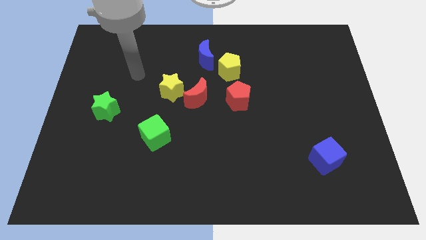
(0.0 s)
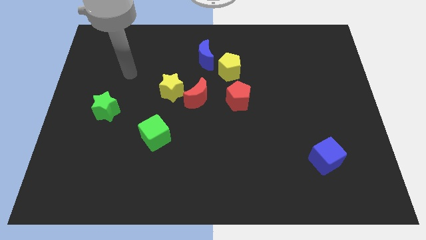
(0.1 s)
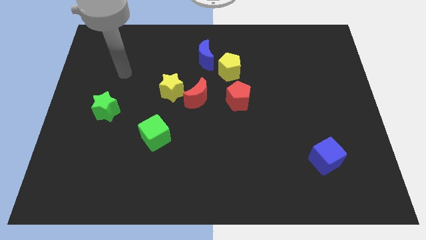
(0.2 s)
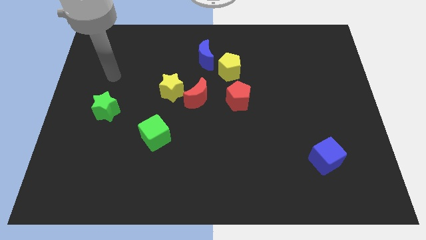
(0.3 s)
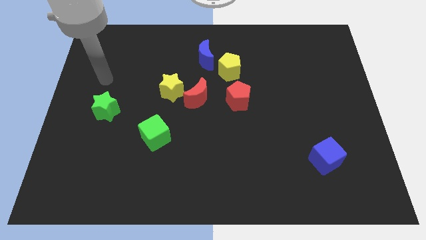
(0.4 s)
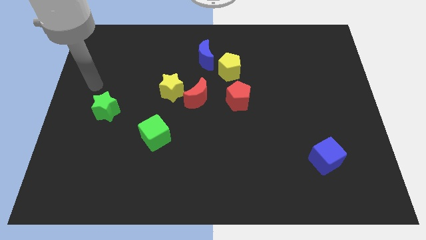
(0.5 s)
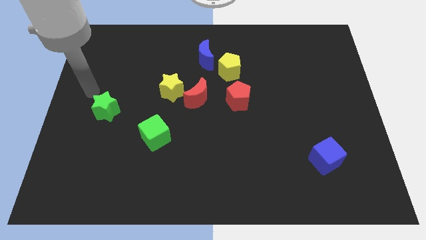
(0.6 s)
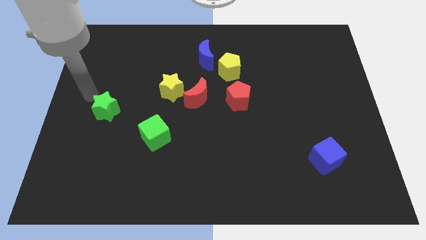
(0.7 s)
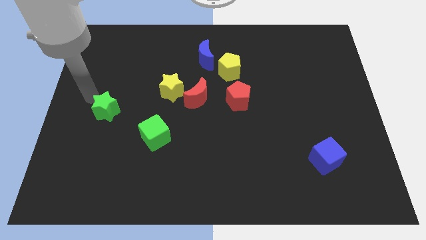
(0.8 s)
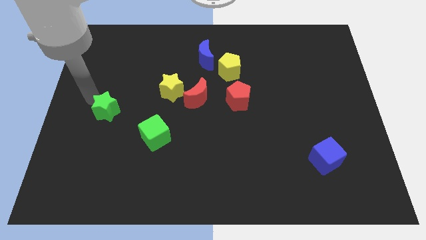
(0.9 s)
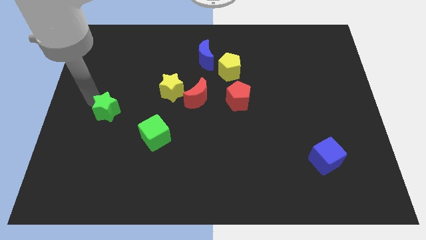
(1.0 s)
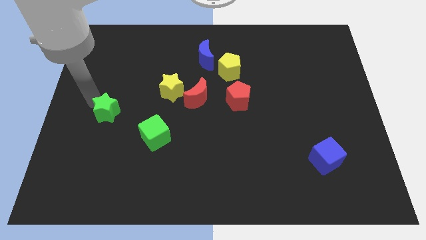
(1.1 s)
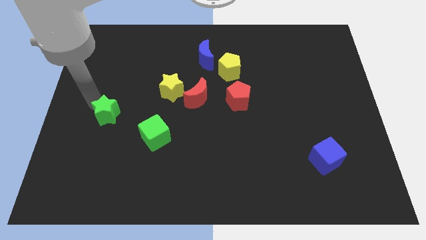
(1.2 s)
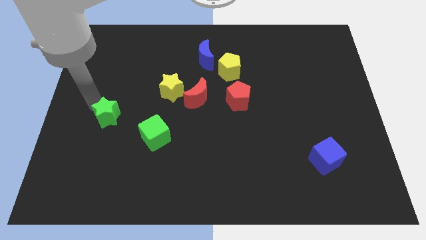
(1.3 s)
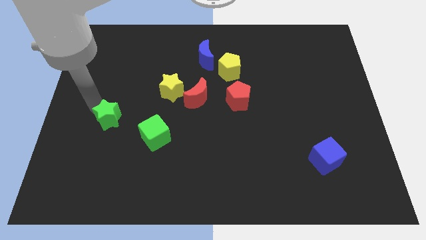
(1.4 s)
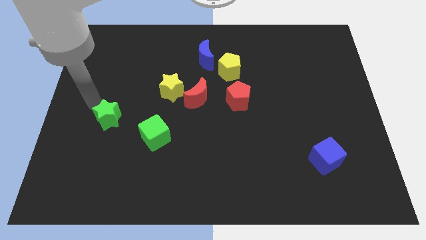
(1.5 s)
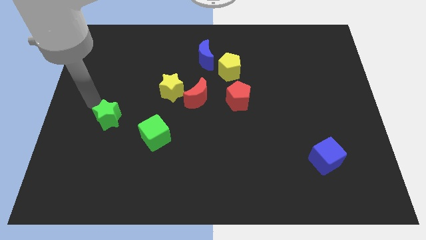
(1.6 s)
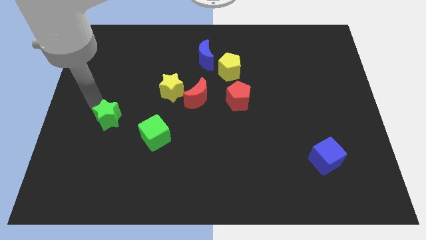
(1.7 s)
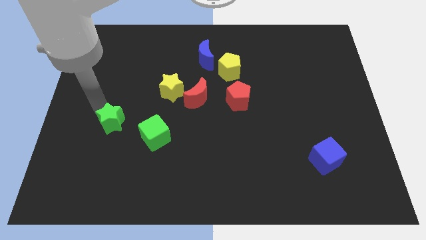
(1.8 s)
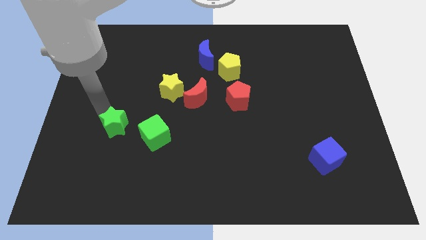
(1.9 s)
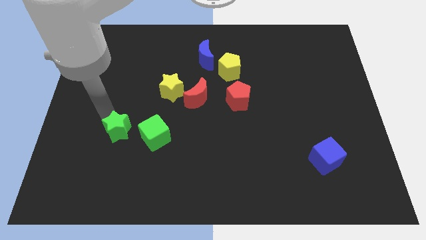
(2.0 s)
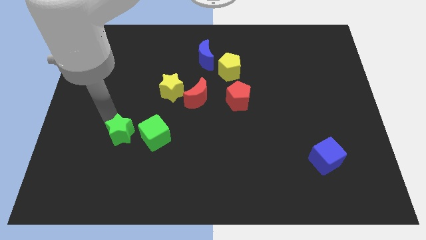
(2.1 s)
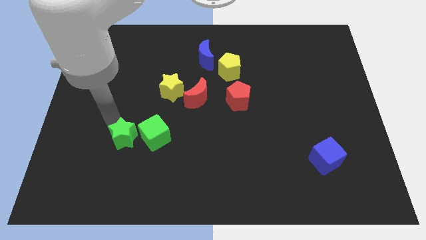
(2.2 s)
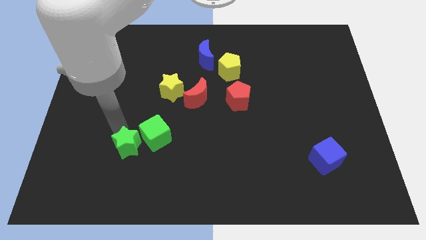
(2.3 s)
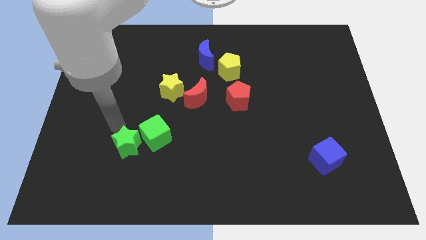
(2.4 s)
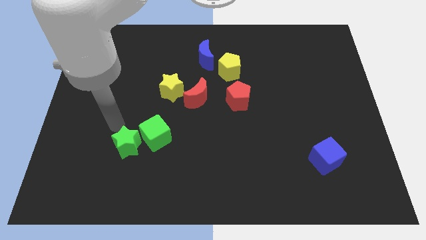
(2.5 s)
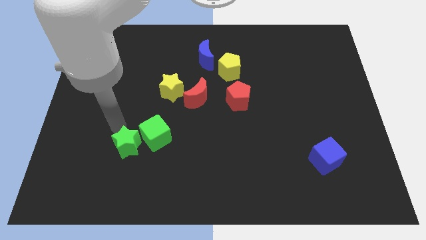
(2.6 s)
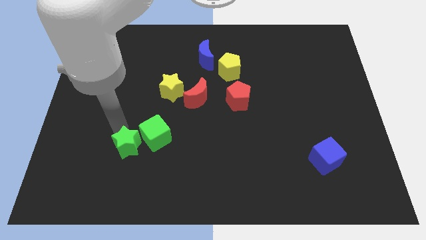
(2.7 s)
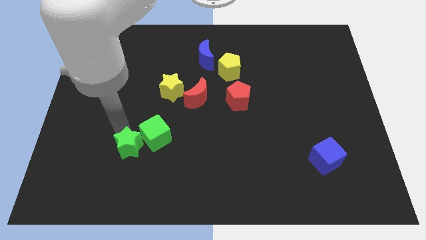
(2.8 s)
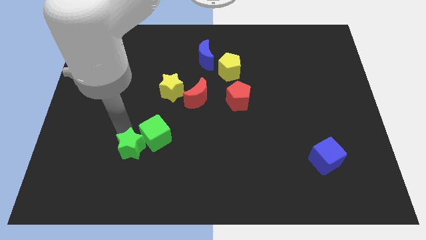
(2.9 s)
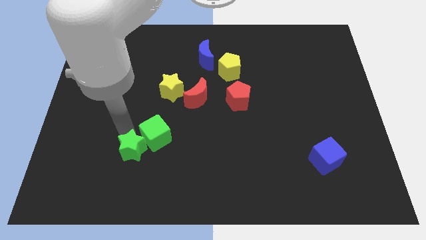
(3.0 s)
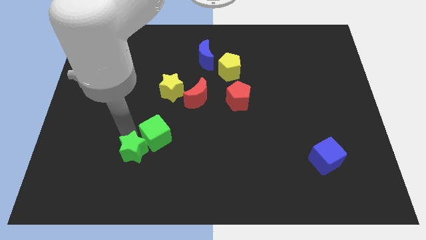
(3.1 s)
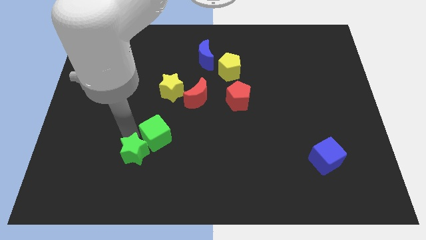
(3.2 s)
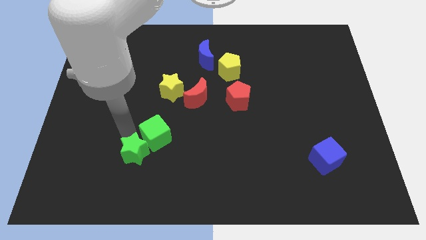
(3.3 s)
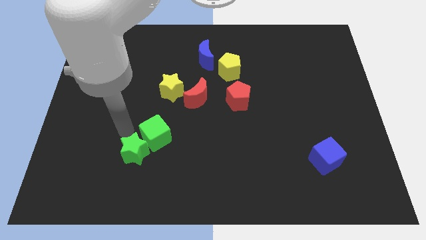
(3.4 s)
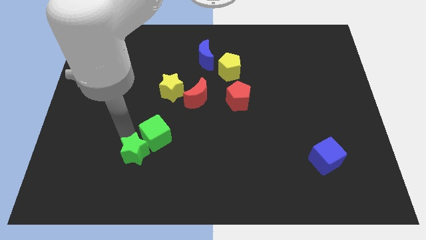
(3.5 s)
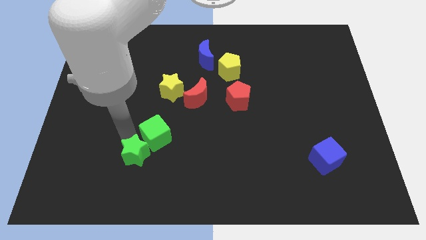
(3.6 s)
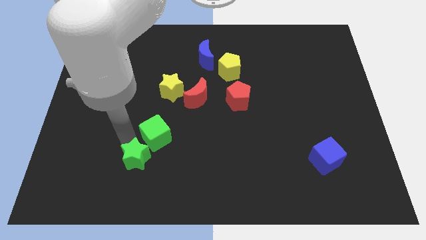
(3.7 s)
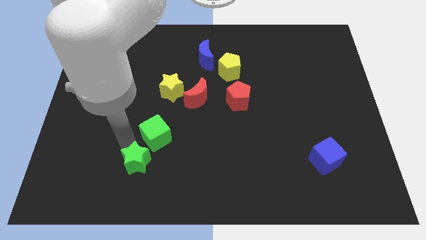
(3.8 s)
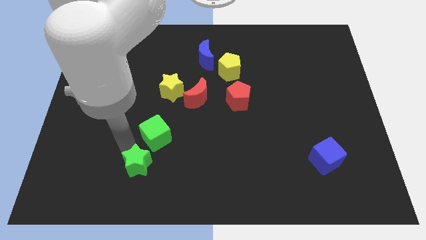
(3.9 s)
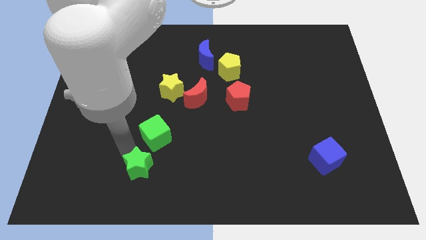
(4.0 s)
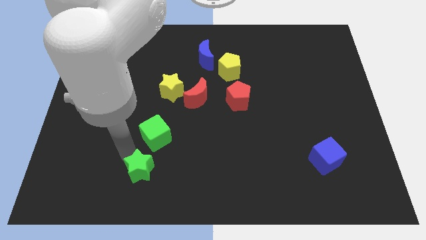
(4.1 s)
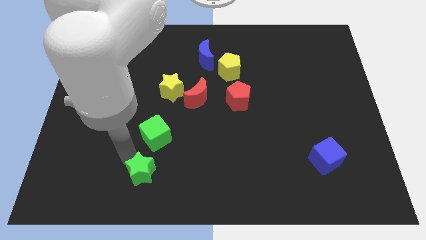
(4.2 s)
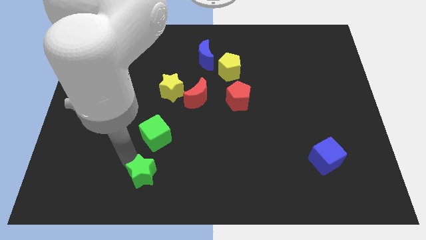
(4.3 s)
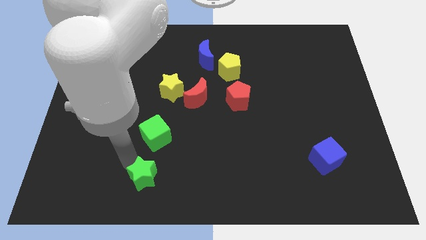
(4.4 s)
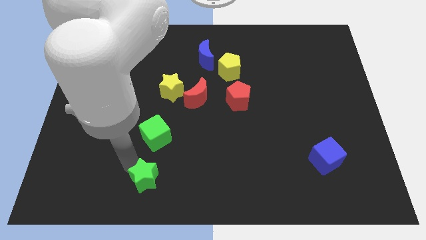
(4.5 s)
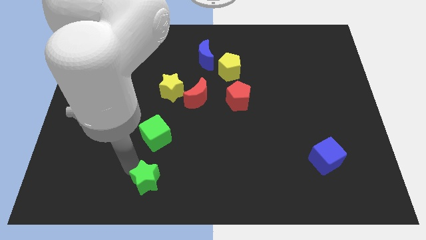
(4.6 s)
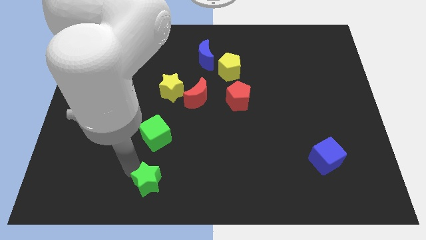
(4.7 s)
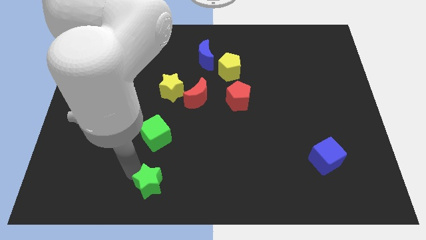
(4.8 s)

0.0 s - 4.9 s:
move the green star to the bottom

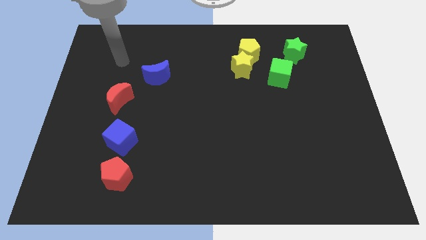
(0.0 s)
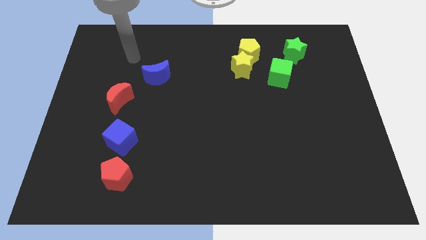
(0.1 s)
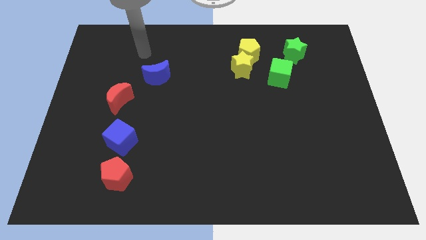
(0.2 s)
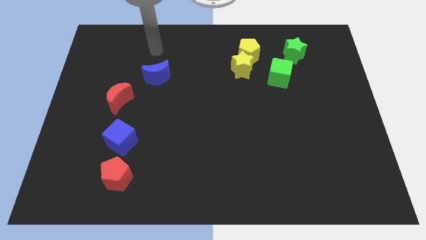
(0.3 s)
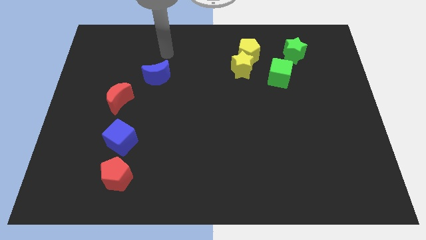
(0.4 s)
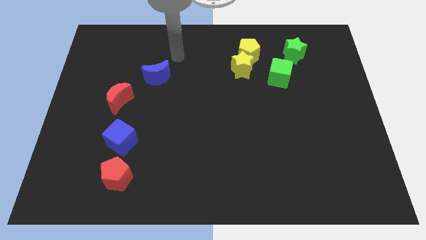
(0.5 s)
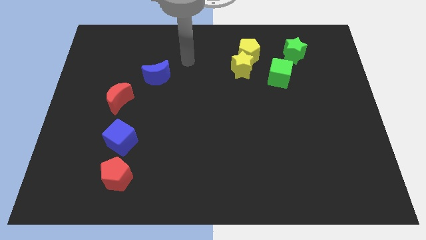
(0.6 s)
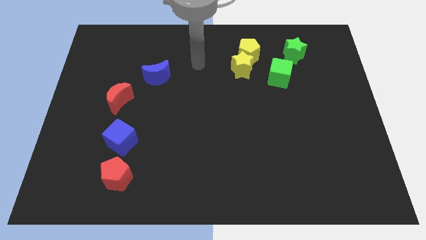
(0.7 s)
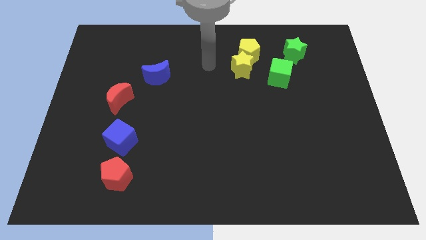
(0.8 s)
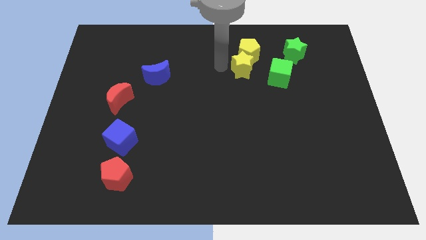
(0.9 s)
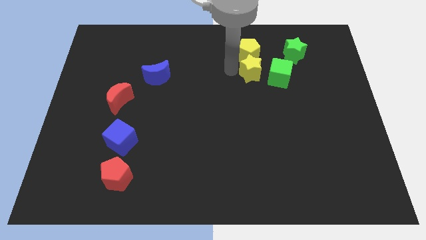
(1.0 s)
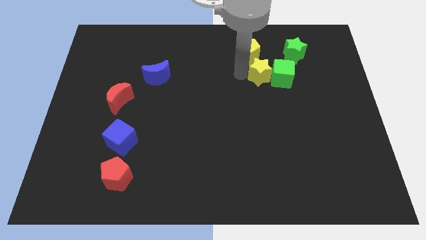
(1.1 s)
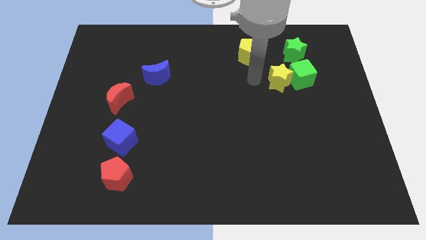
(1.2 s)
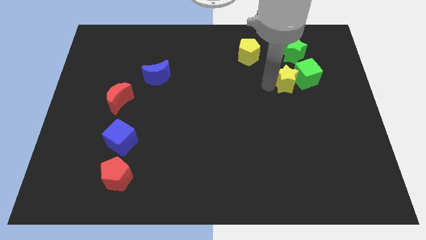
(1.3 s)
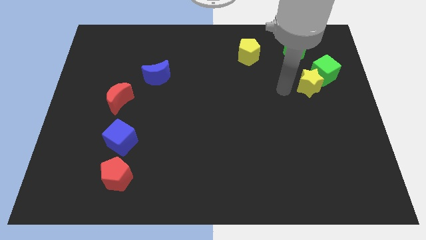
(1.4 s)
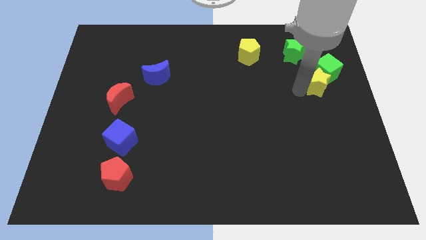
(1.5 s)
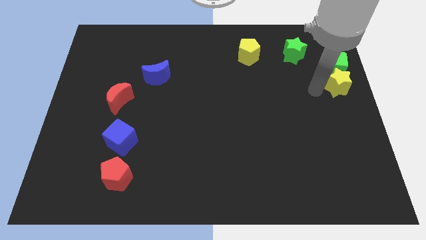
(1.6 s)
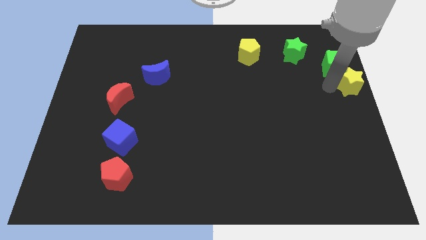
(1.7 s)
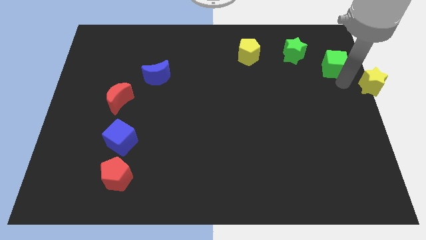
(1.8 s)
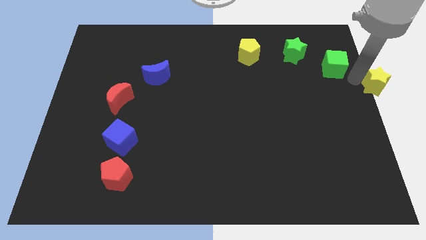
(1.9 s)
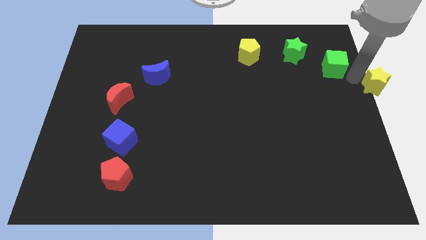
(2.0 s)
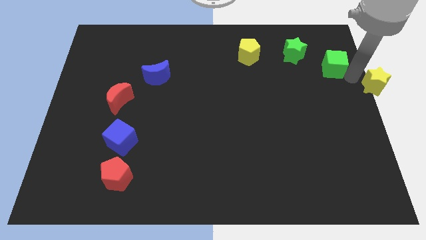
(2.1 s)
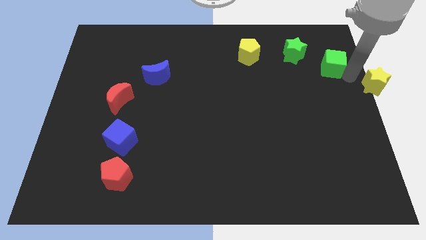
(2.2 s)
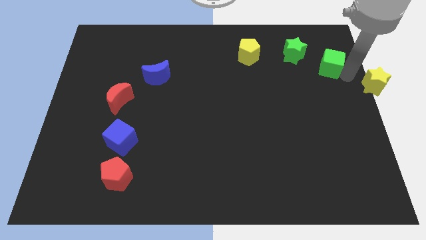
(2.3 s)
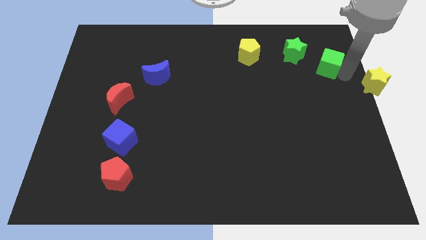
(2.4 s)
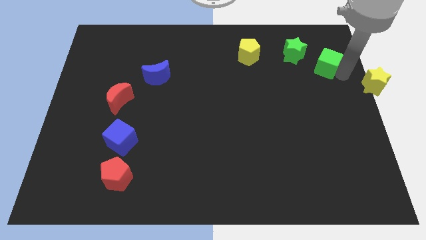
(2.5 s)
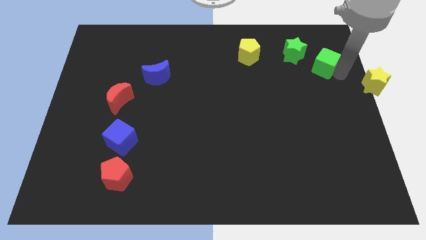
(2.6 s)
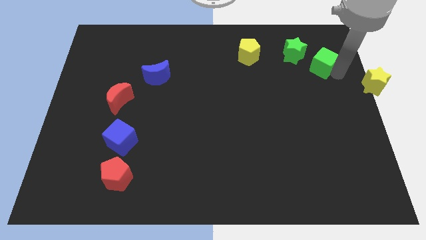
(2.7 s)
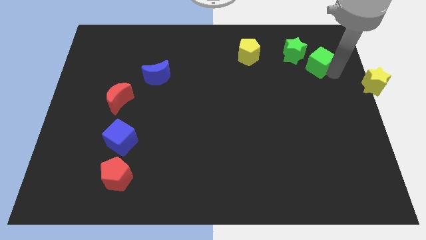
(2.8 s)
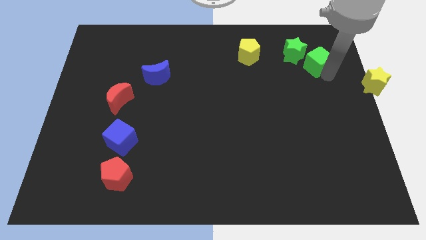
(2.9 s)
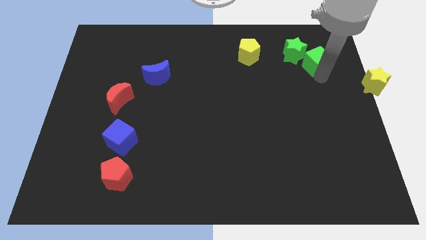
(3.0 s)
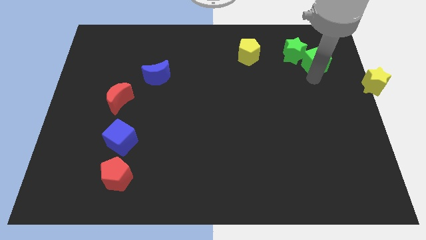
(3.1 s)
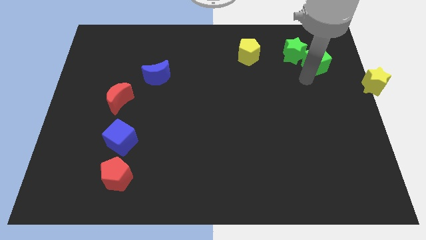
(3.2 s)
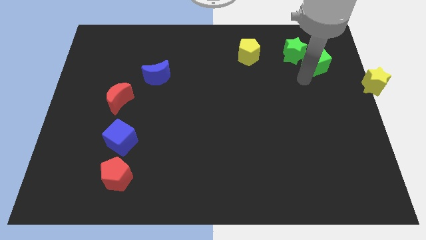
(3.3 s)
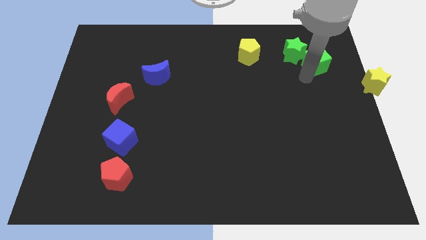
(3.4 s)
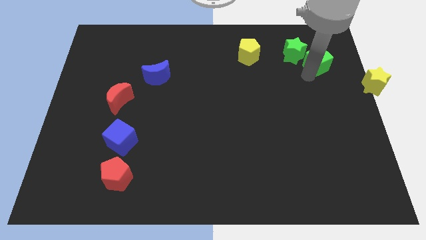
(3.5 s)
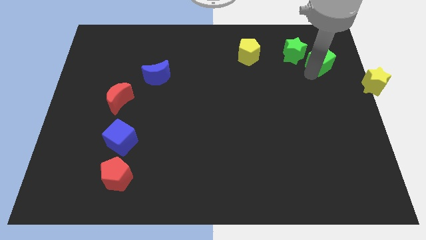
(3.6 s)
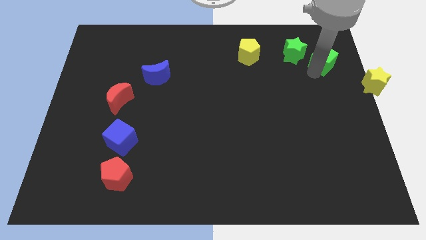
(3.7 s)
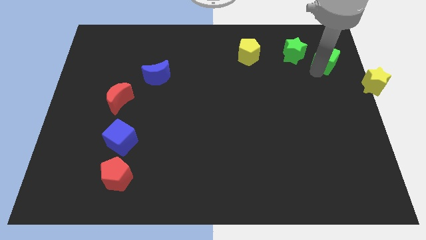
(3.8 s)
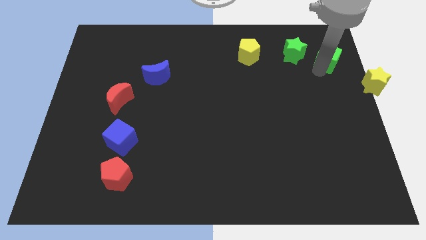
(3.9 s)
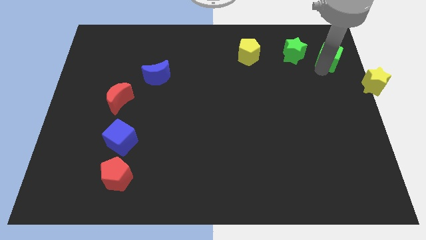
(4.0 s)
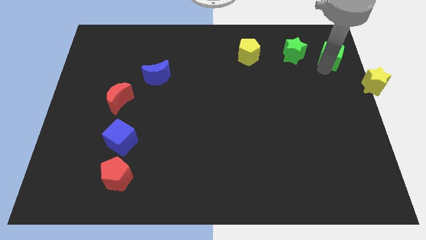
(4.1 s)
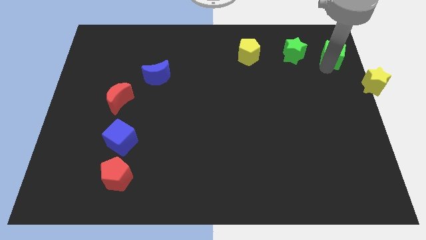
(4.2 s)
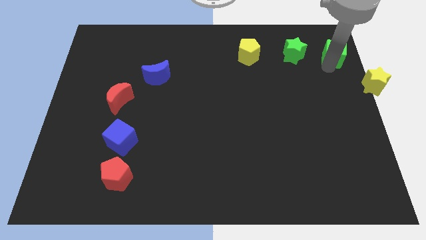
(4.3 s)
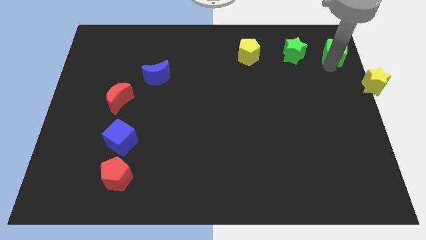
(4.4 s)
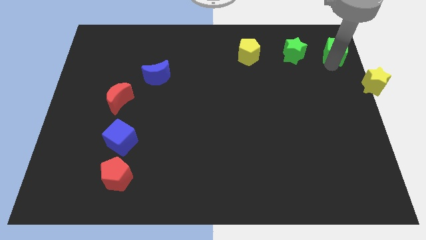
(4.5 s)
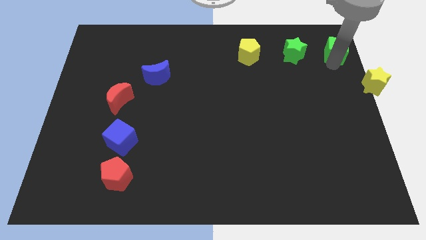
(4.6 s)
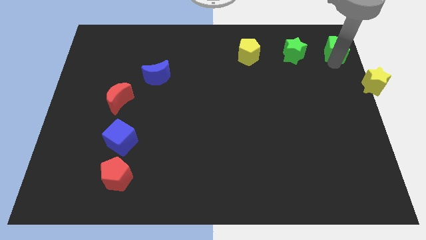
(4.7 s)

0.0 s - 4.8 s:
slide the green cube to the top right
